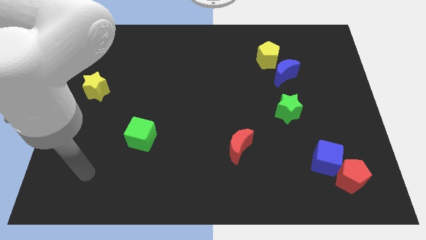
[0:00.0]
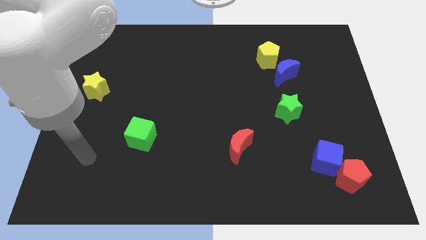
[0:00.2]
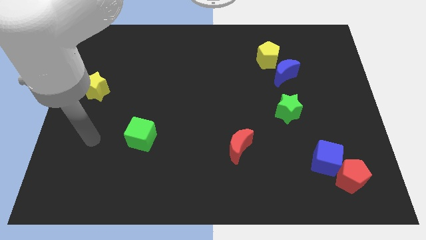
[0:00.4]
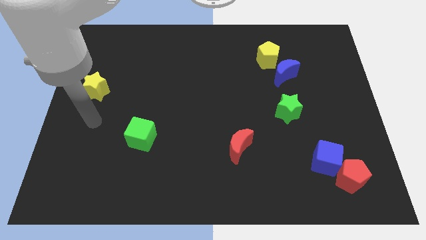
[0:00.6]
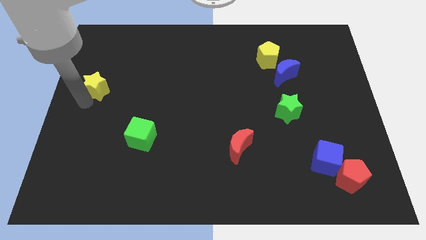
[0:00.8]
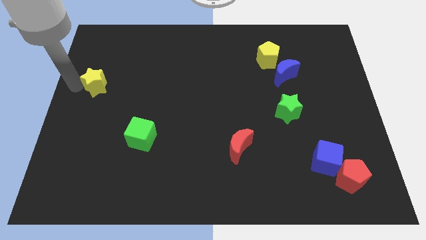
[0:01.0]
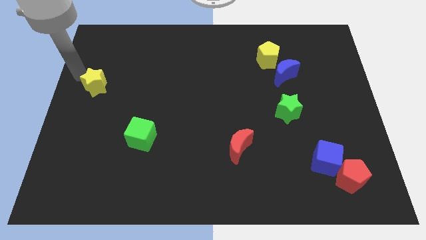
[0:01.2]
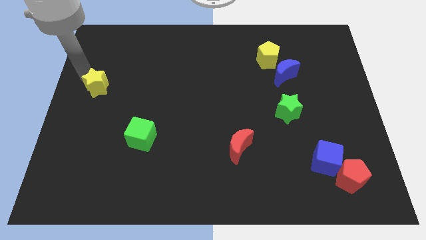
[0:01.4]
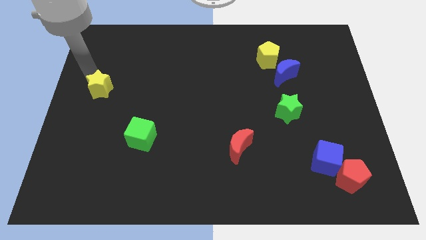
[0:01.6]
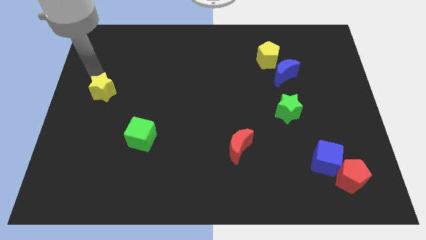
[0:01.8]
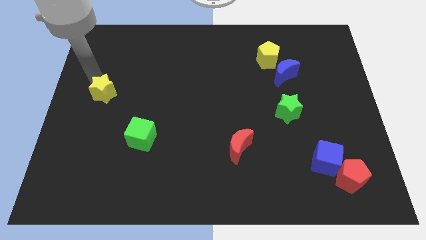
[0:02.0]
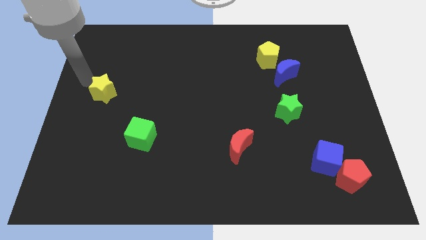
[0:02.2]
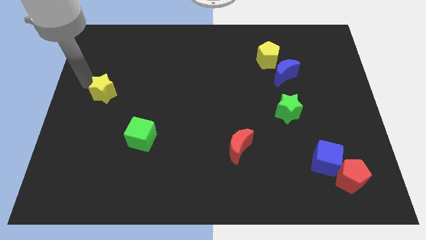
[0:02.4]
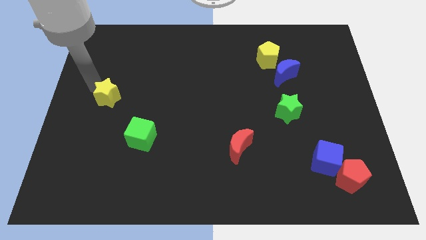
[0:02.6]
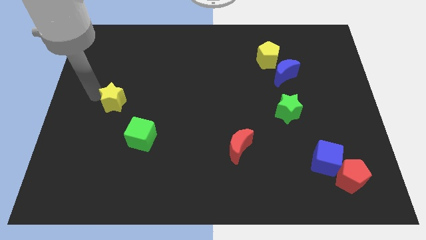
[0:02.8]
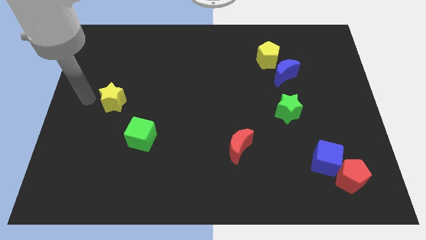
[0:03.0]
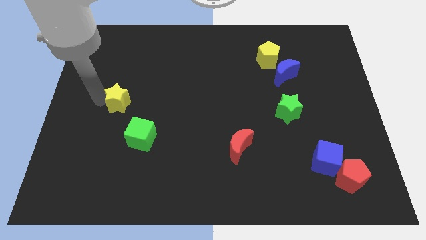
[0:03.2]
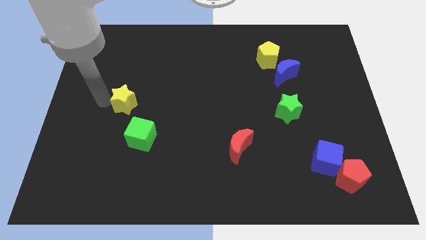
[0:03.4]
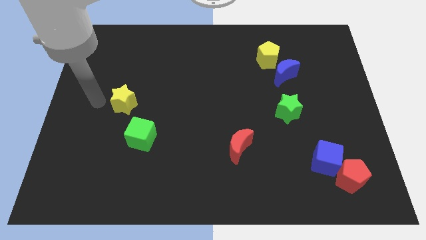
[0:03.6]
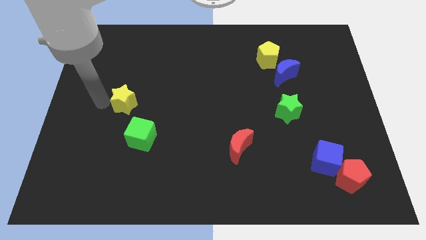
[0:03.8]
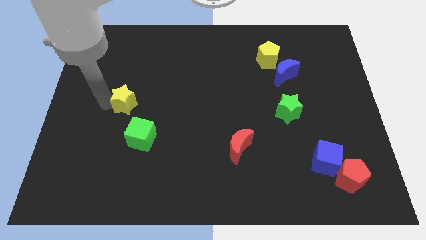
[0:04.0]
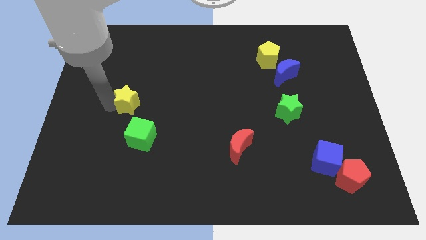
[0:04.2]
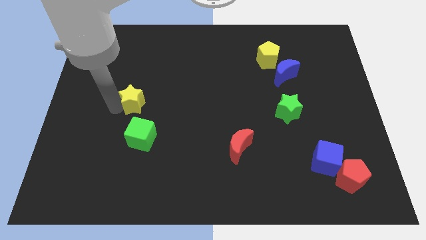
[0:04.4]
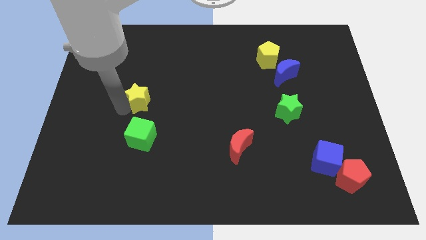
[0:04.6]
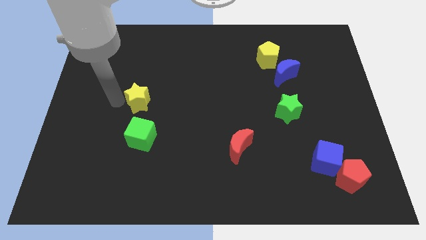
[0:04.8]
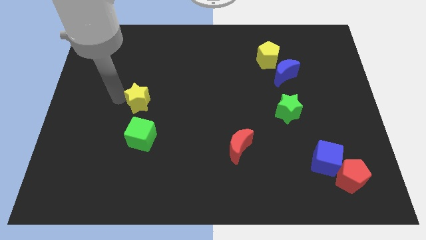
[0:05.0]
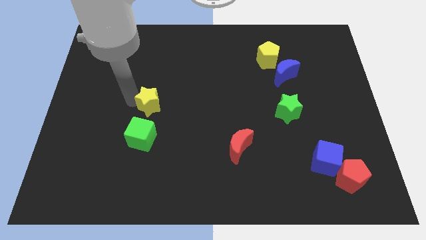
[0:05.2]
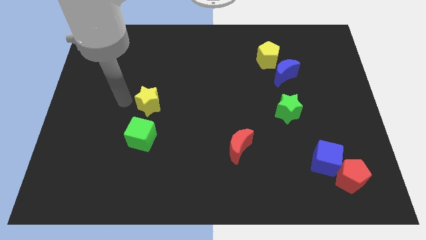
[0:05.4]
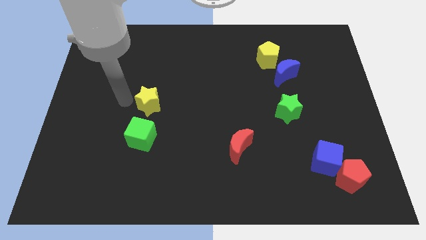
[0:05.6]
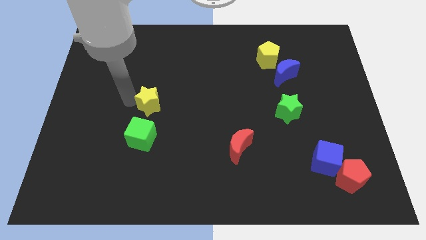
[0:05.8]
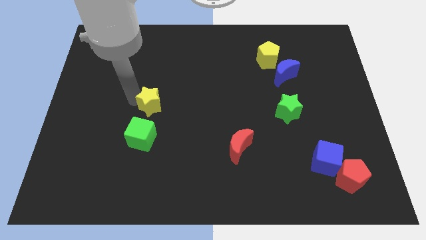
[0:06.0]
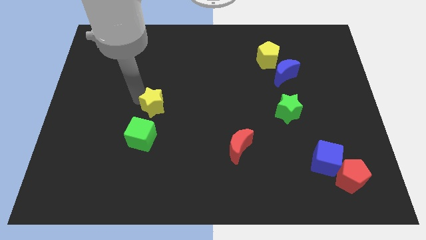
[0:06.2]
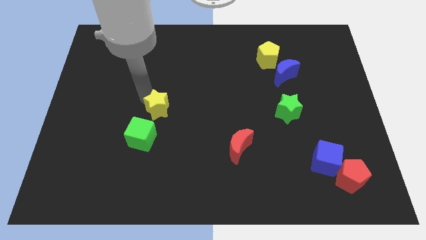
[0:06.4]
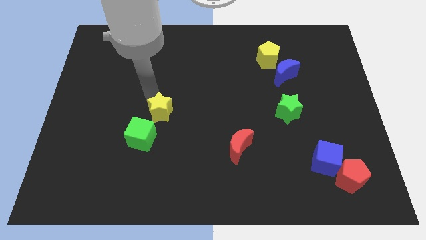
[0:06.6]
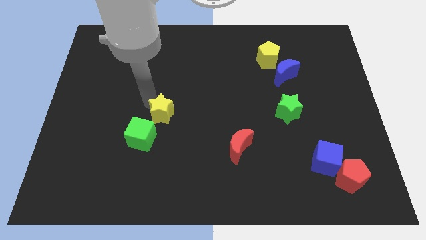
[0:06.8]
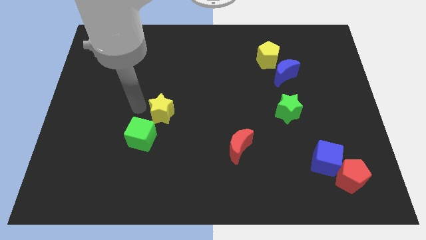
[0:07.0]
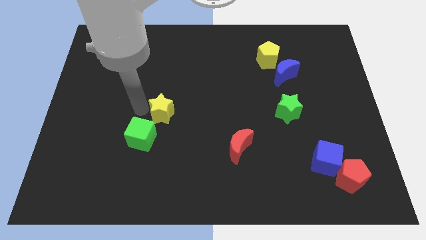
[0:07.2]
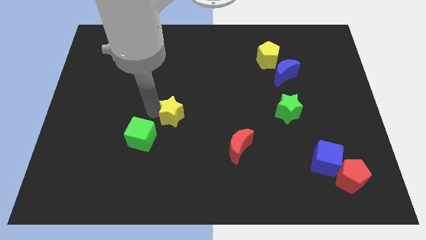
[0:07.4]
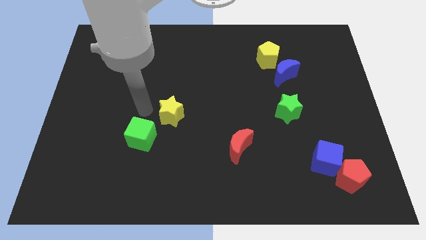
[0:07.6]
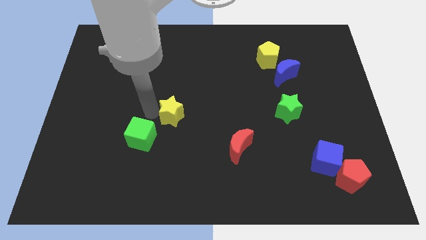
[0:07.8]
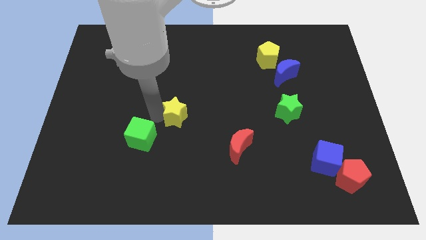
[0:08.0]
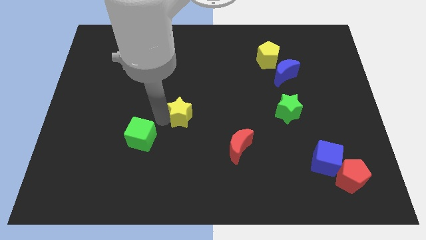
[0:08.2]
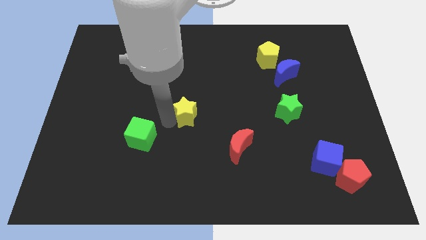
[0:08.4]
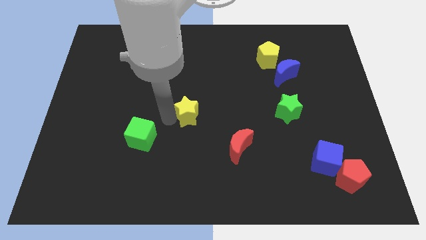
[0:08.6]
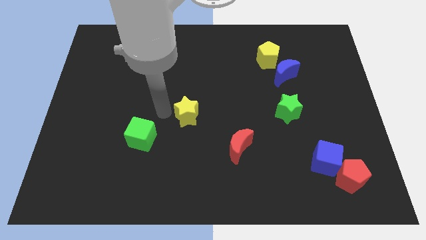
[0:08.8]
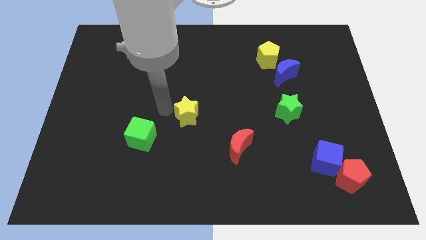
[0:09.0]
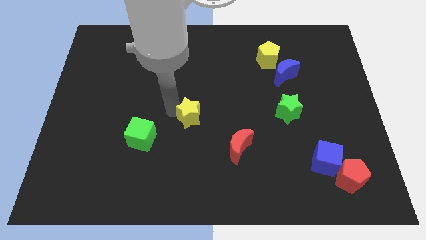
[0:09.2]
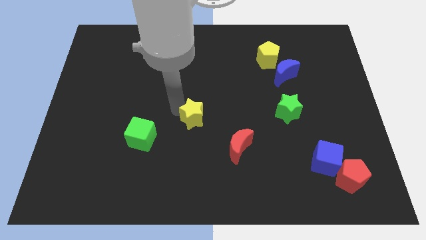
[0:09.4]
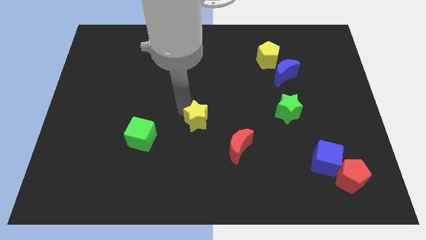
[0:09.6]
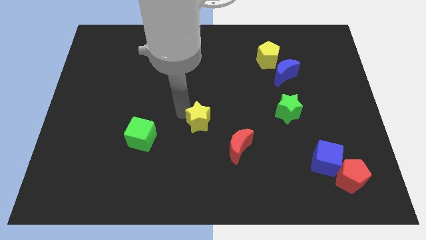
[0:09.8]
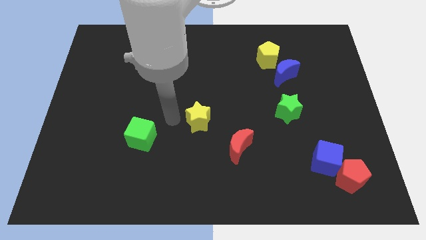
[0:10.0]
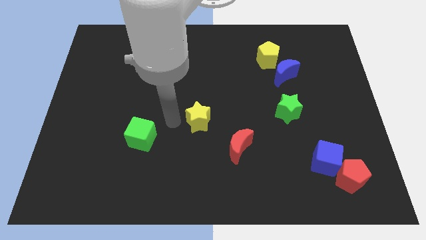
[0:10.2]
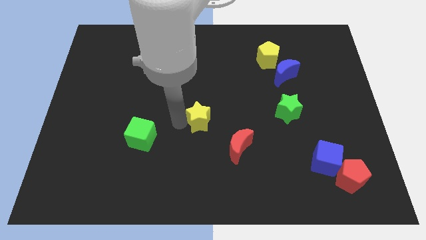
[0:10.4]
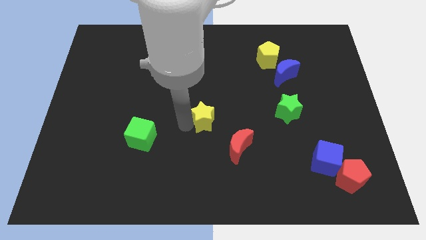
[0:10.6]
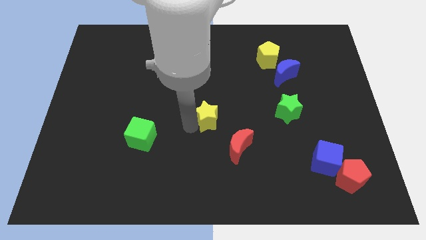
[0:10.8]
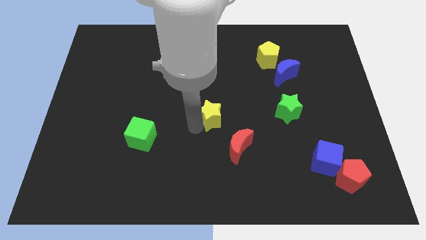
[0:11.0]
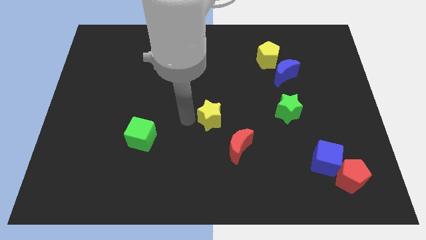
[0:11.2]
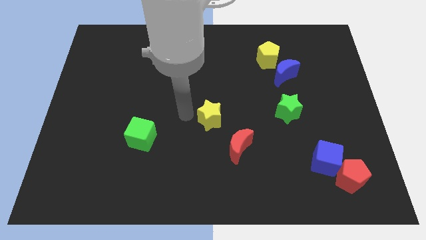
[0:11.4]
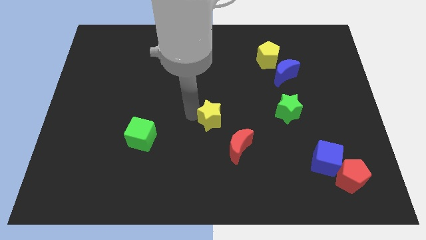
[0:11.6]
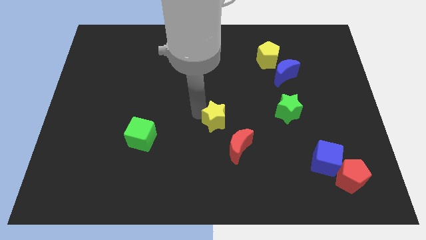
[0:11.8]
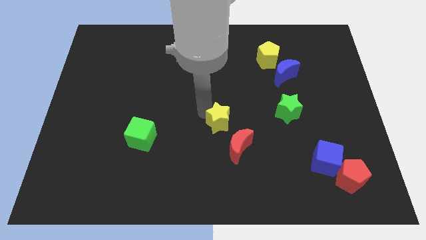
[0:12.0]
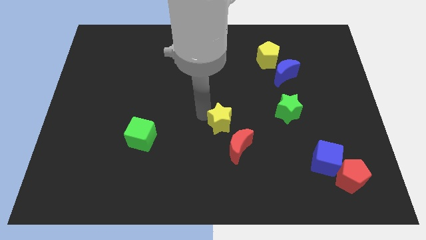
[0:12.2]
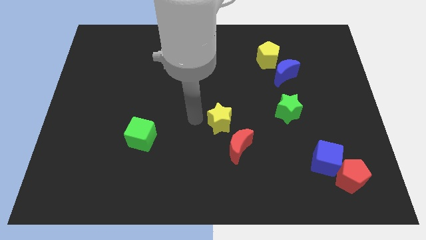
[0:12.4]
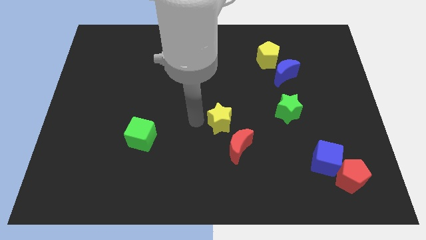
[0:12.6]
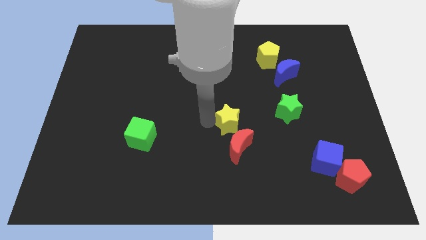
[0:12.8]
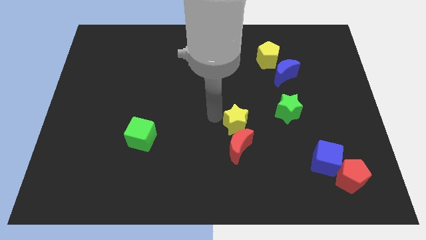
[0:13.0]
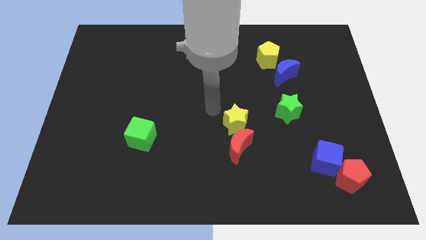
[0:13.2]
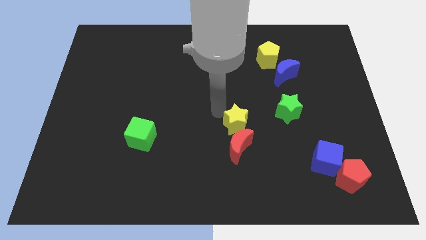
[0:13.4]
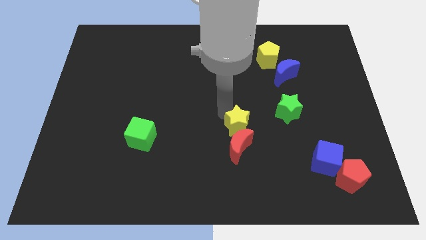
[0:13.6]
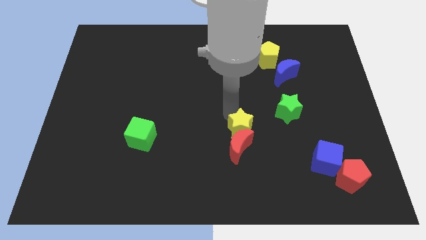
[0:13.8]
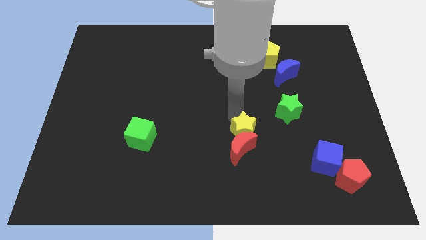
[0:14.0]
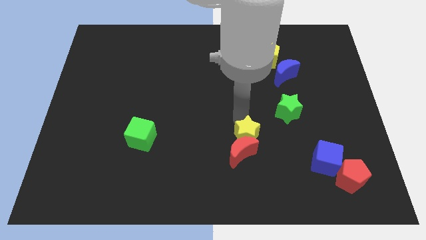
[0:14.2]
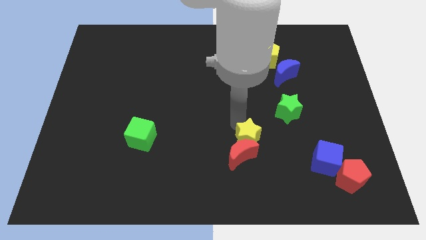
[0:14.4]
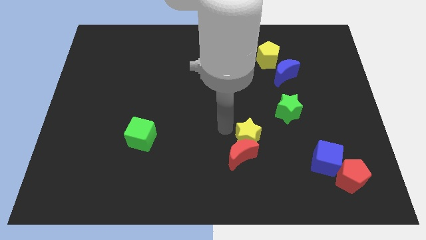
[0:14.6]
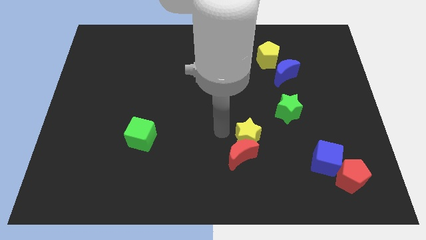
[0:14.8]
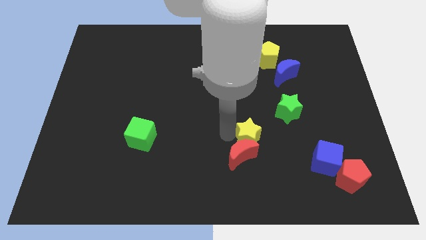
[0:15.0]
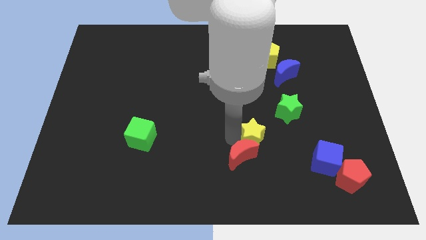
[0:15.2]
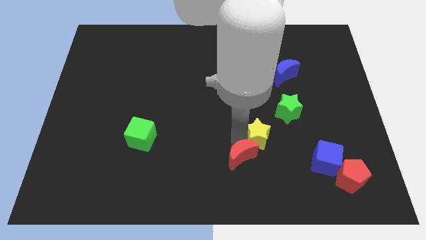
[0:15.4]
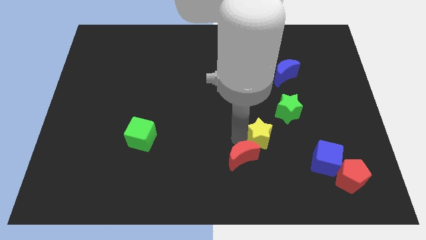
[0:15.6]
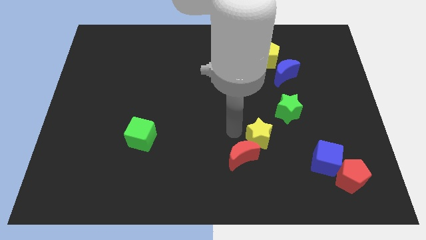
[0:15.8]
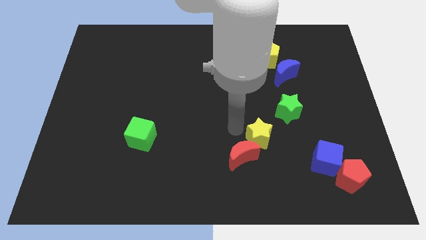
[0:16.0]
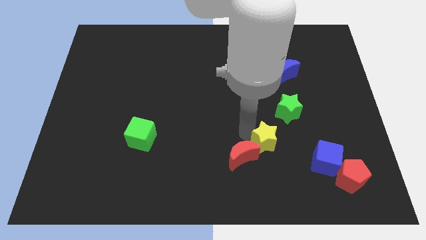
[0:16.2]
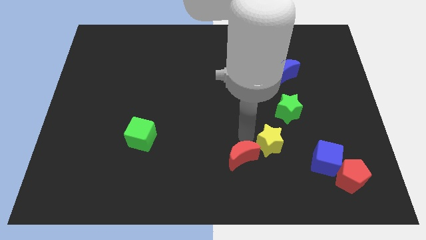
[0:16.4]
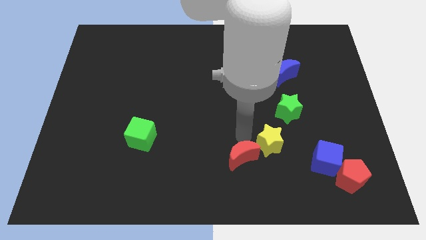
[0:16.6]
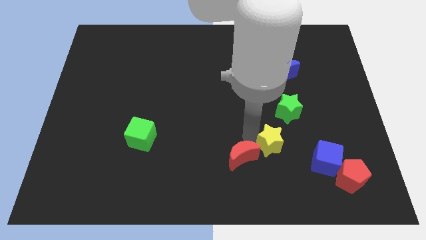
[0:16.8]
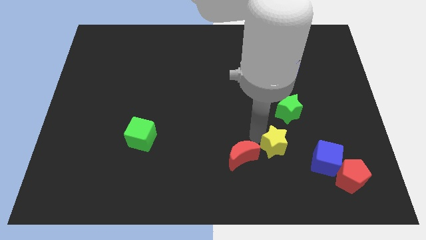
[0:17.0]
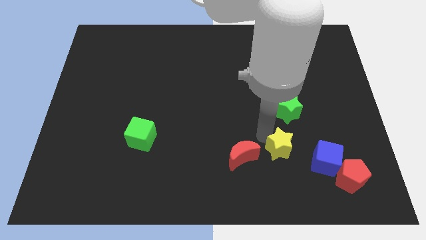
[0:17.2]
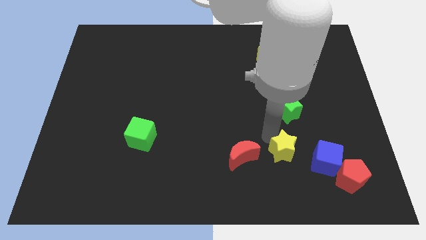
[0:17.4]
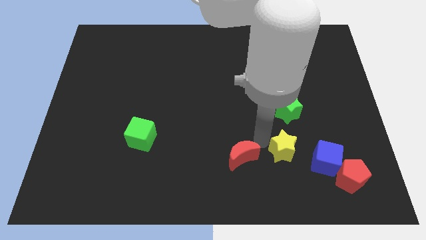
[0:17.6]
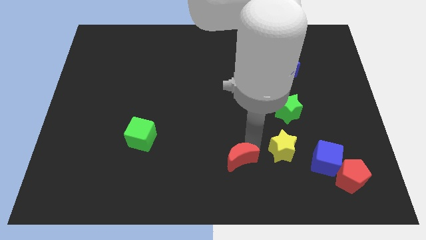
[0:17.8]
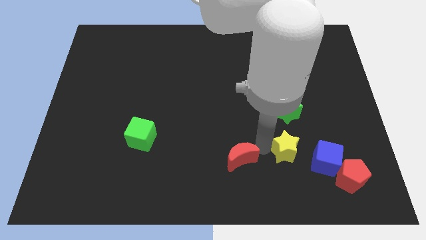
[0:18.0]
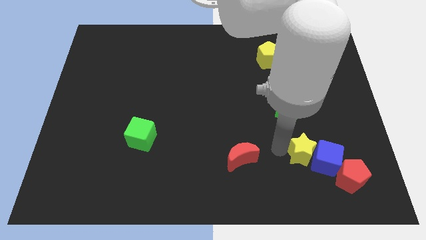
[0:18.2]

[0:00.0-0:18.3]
slide the yellow star towards the blue cube
